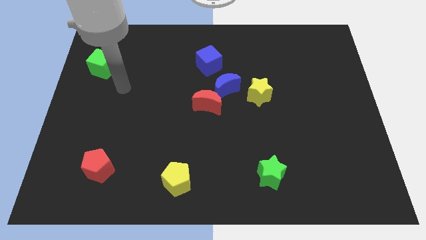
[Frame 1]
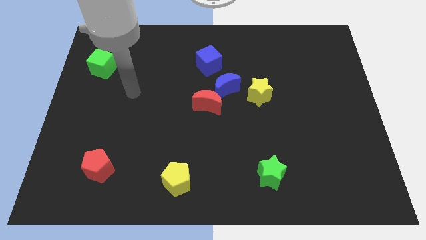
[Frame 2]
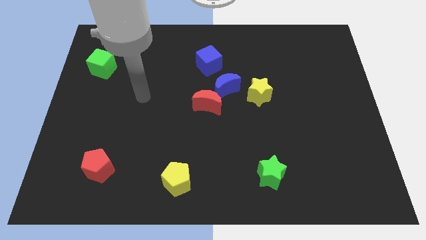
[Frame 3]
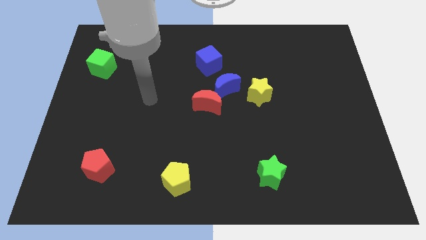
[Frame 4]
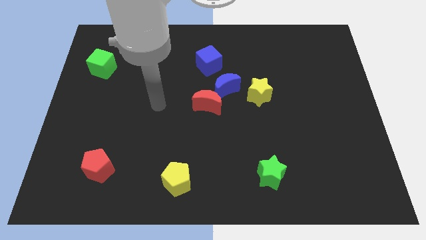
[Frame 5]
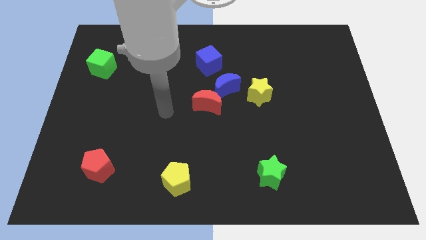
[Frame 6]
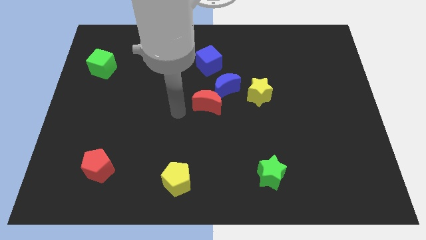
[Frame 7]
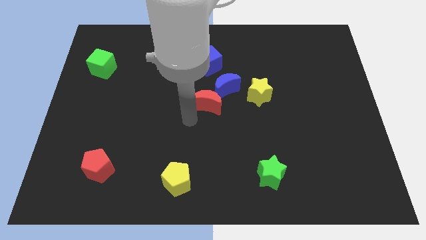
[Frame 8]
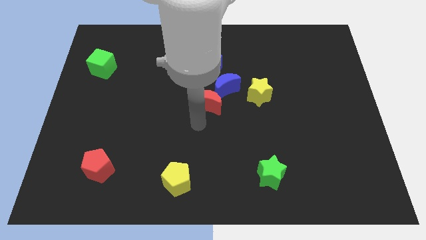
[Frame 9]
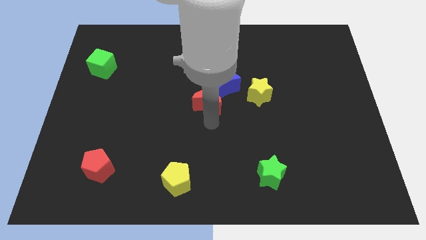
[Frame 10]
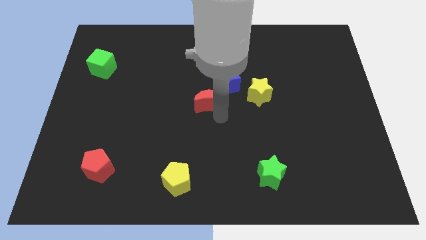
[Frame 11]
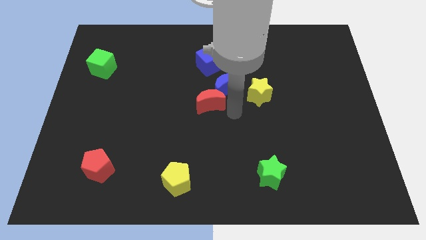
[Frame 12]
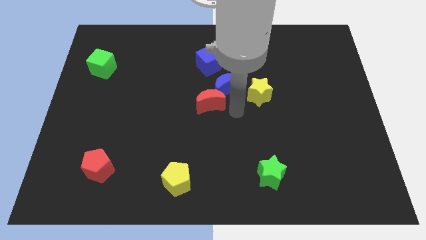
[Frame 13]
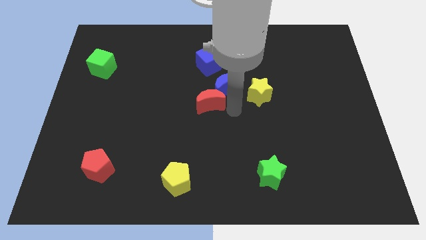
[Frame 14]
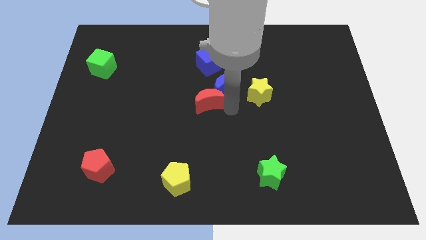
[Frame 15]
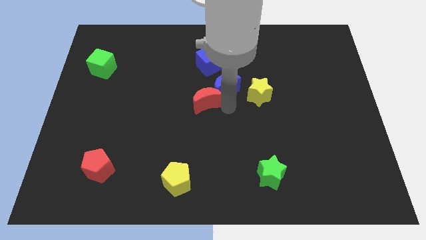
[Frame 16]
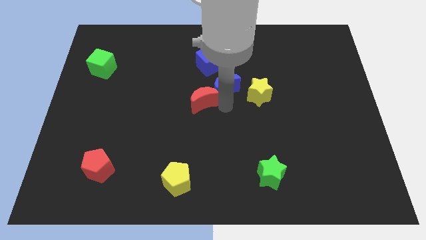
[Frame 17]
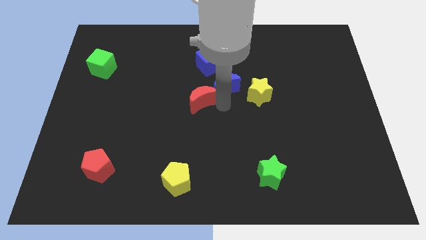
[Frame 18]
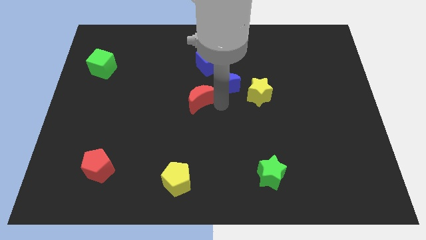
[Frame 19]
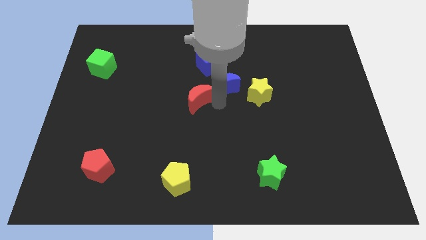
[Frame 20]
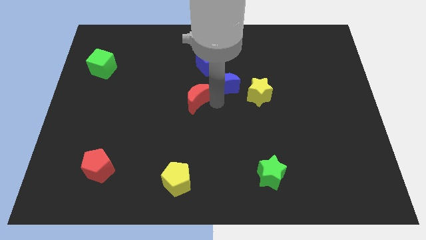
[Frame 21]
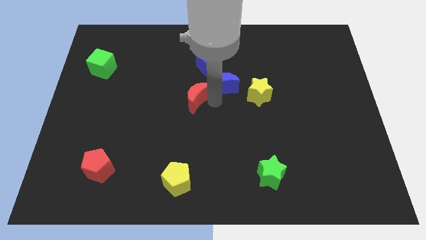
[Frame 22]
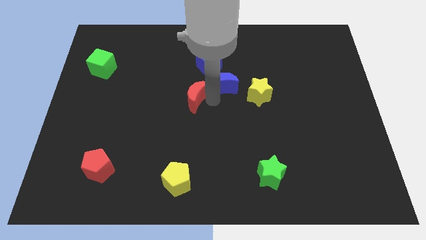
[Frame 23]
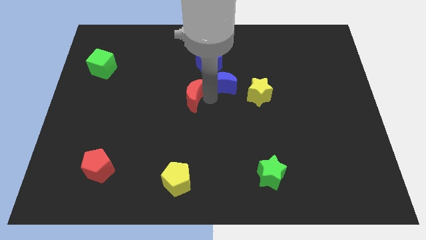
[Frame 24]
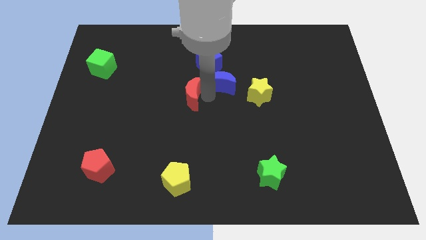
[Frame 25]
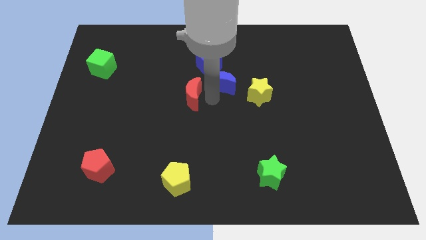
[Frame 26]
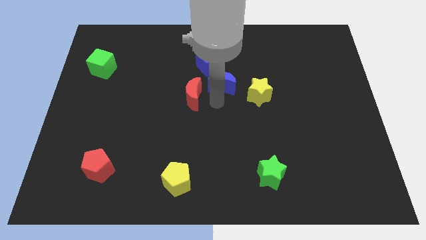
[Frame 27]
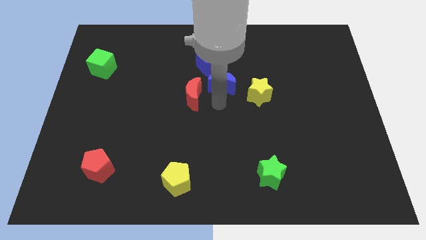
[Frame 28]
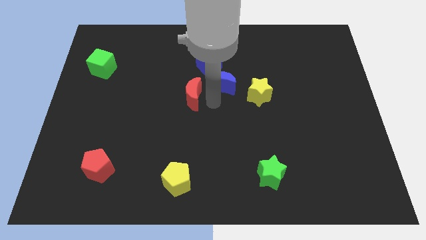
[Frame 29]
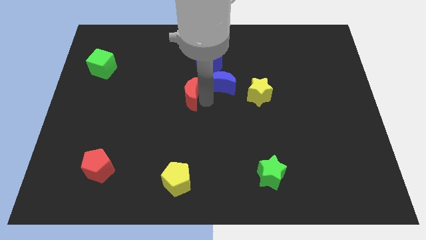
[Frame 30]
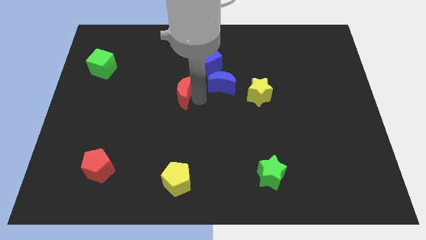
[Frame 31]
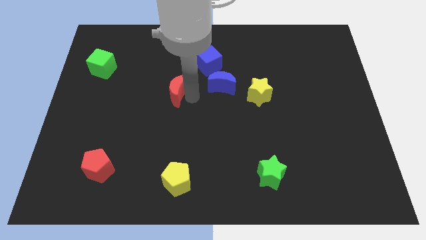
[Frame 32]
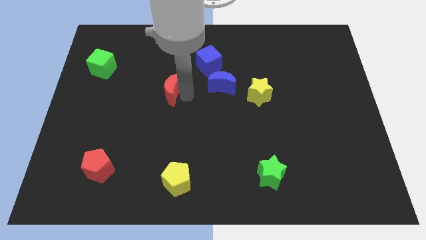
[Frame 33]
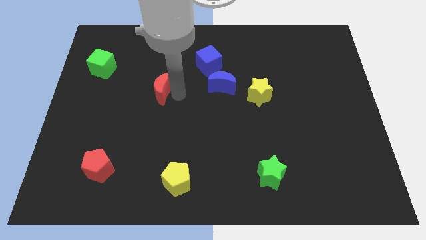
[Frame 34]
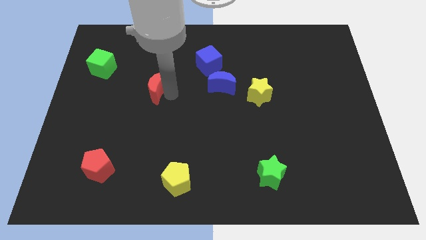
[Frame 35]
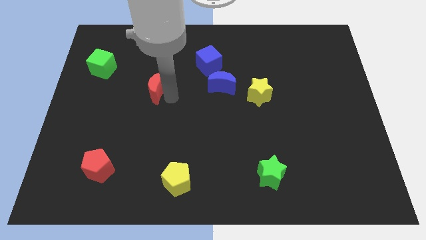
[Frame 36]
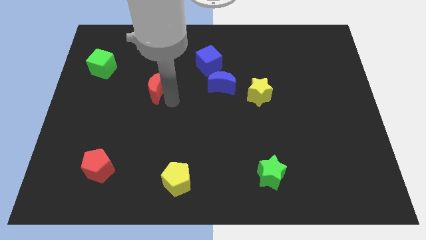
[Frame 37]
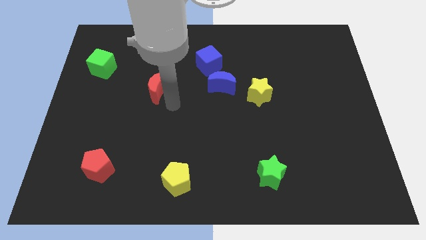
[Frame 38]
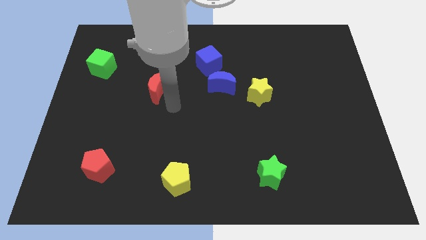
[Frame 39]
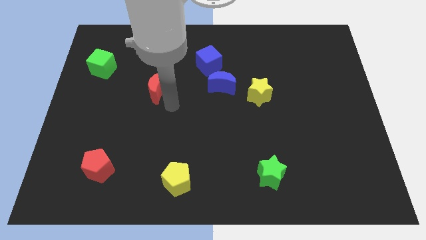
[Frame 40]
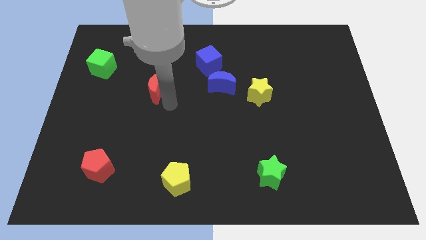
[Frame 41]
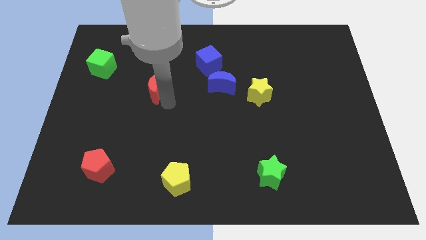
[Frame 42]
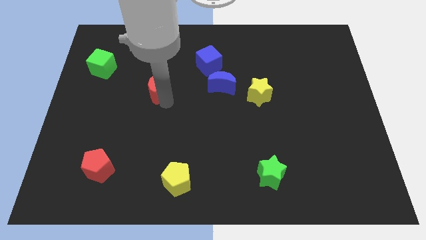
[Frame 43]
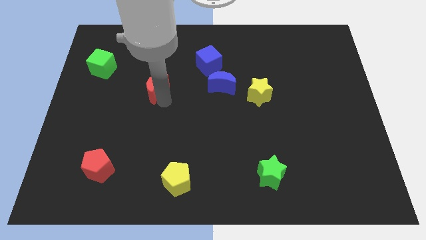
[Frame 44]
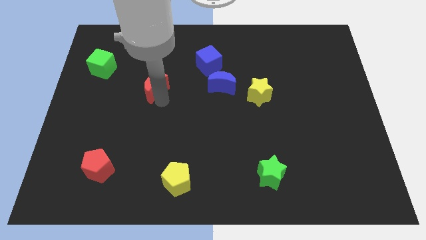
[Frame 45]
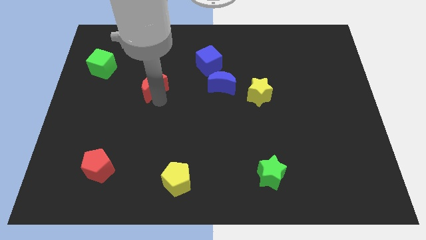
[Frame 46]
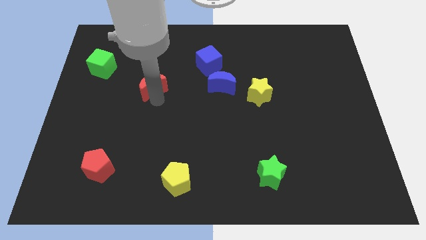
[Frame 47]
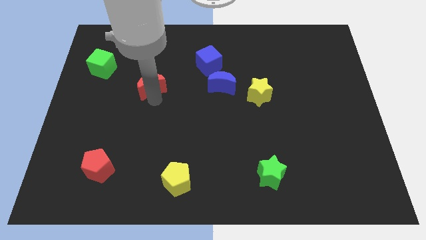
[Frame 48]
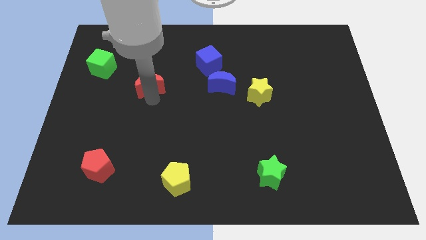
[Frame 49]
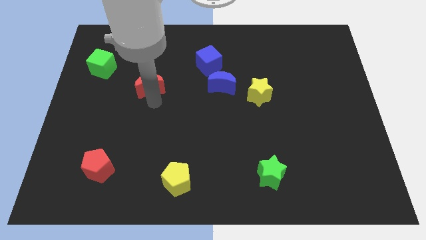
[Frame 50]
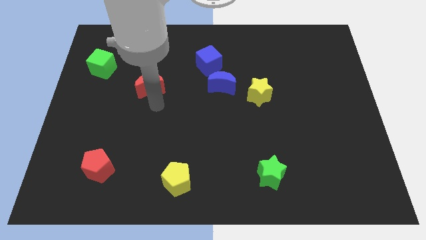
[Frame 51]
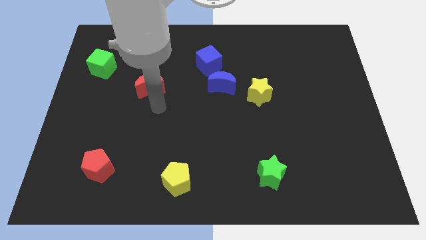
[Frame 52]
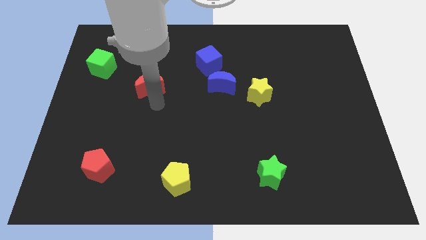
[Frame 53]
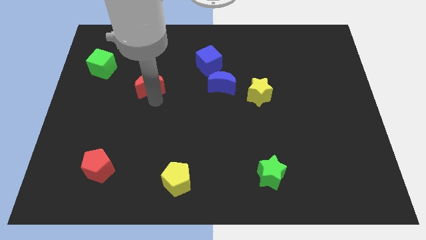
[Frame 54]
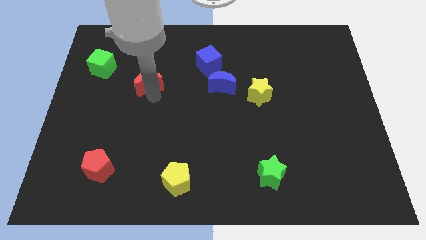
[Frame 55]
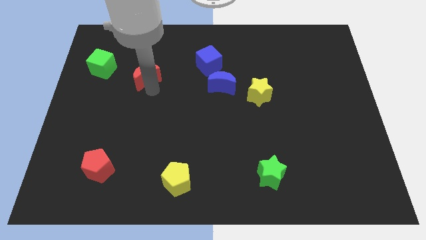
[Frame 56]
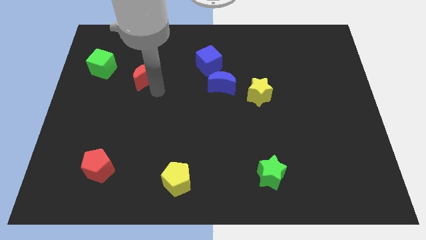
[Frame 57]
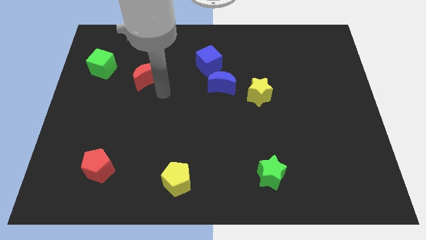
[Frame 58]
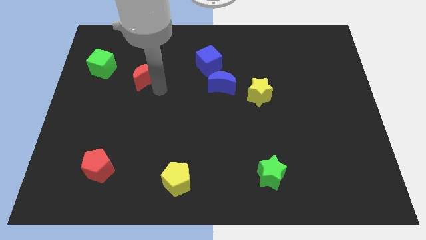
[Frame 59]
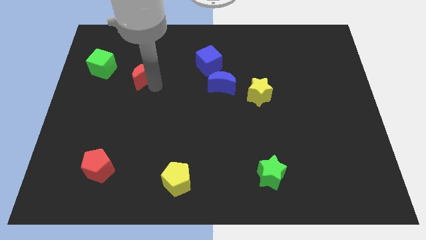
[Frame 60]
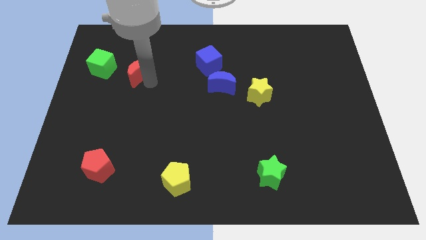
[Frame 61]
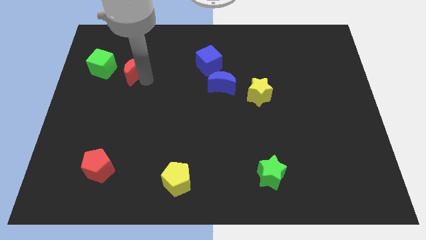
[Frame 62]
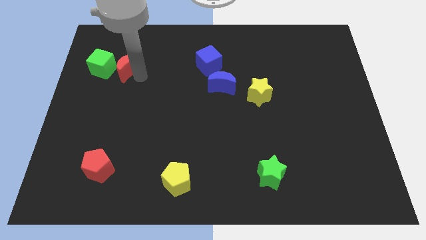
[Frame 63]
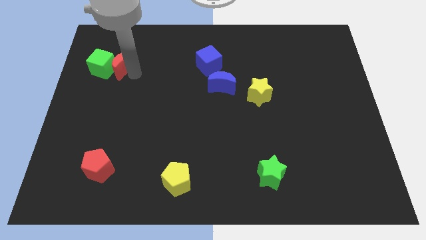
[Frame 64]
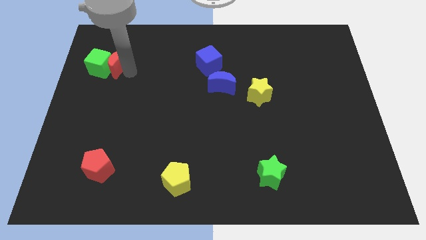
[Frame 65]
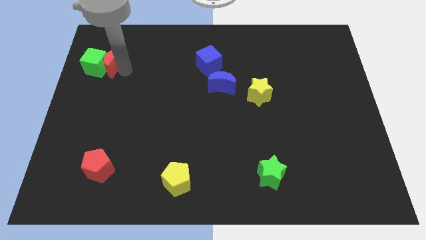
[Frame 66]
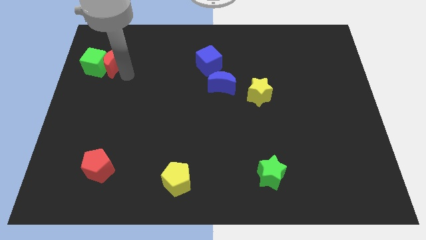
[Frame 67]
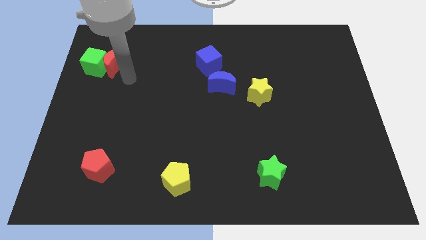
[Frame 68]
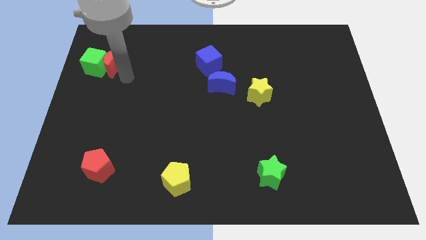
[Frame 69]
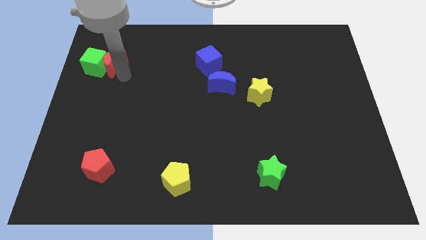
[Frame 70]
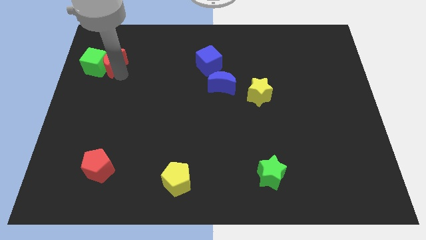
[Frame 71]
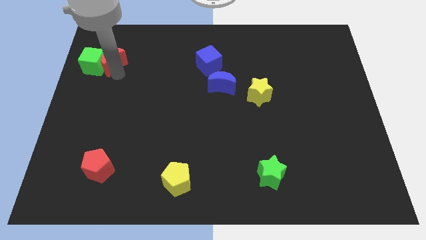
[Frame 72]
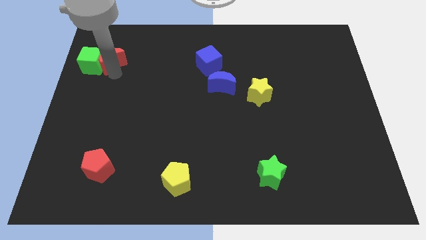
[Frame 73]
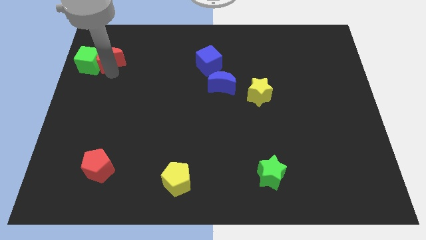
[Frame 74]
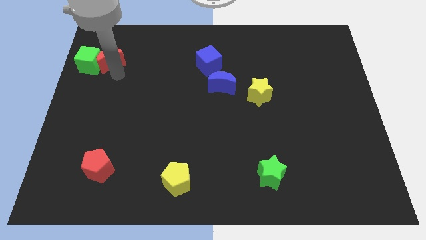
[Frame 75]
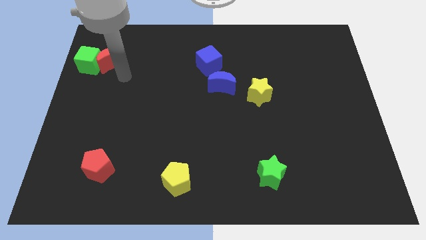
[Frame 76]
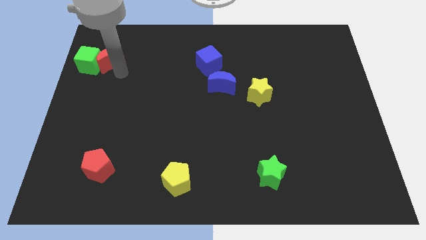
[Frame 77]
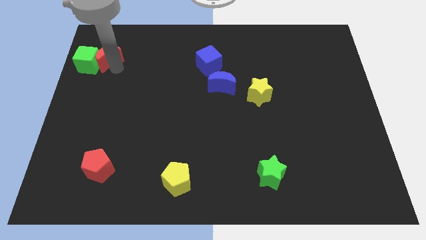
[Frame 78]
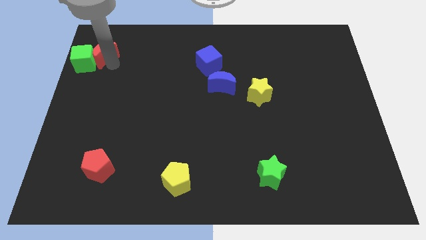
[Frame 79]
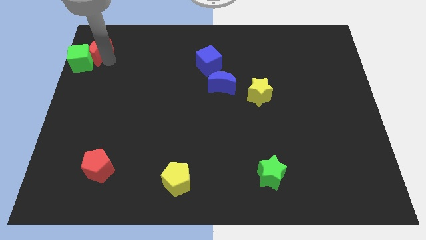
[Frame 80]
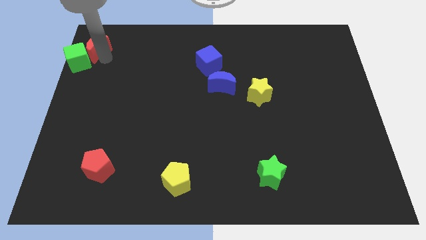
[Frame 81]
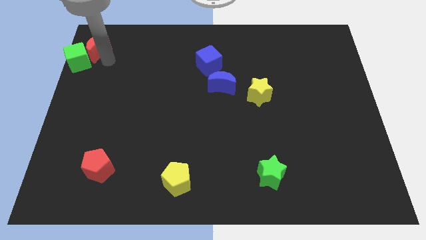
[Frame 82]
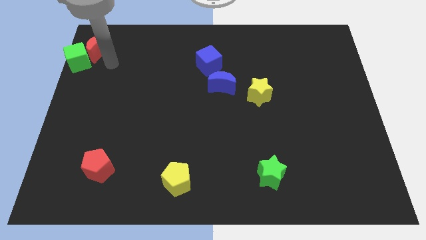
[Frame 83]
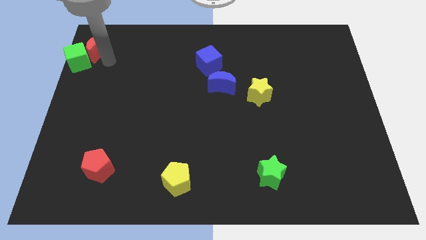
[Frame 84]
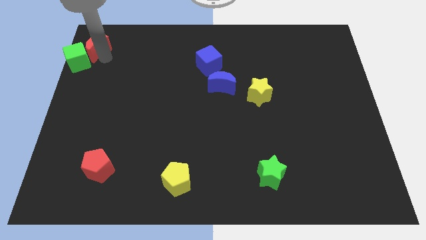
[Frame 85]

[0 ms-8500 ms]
move the red moon to the upper left corner
